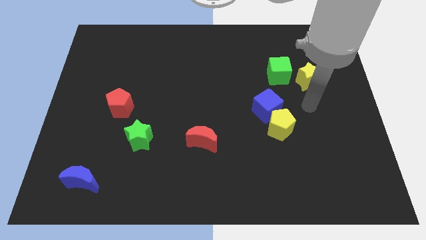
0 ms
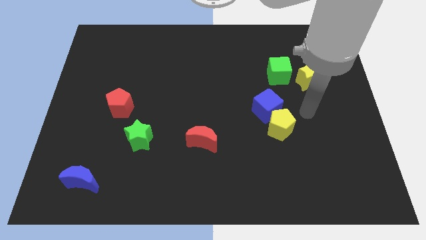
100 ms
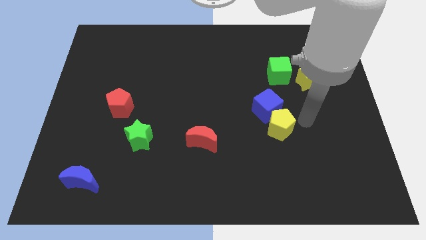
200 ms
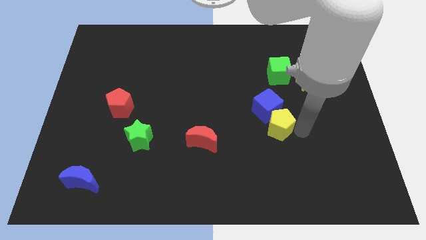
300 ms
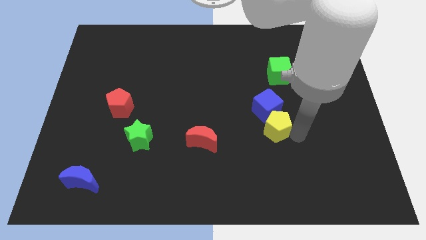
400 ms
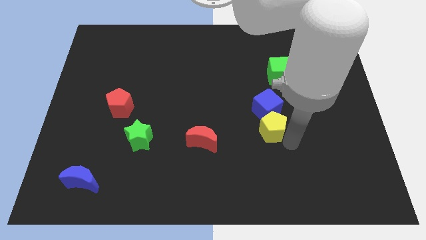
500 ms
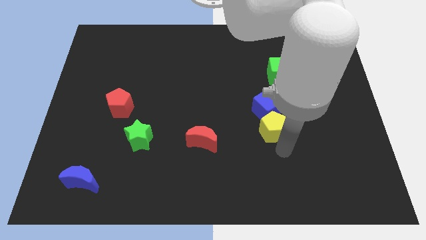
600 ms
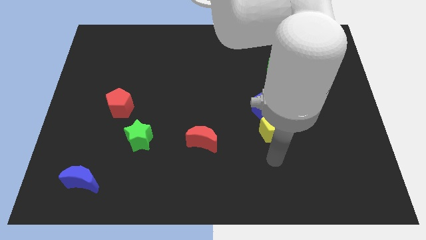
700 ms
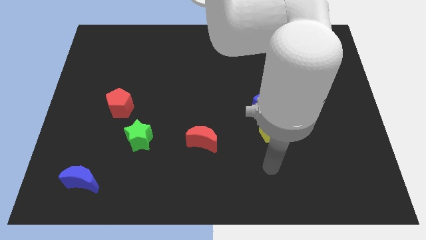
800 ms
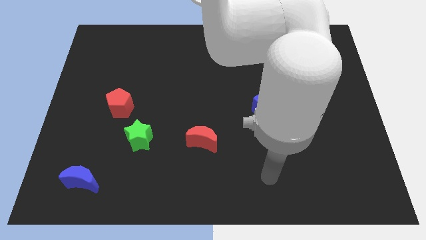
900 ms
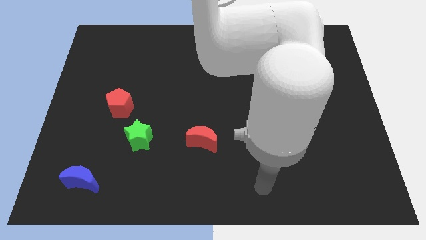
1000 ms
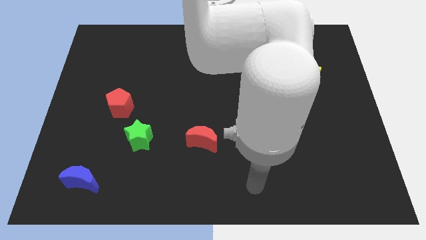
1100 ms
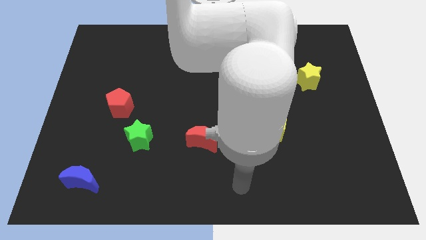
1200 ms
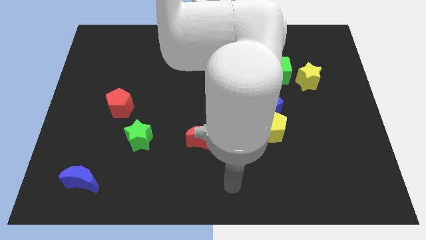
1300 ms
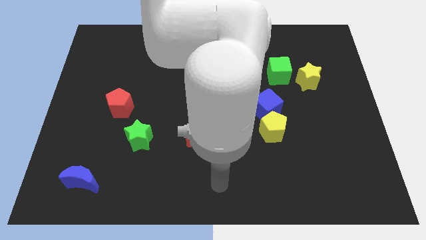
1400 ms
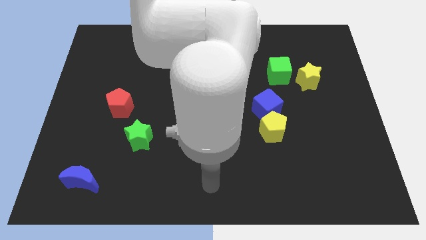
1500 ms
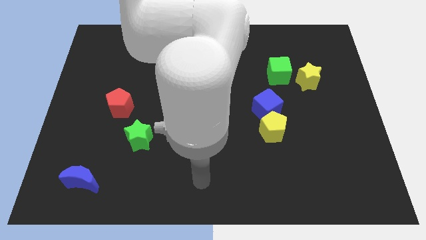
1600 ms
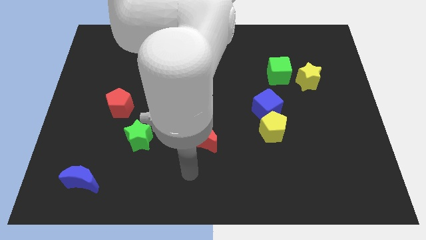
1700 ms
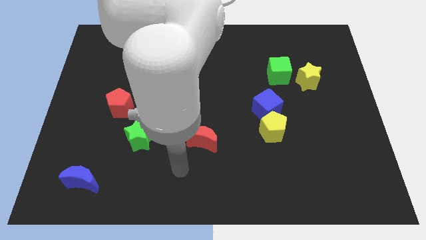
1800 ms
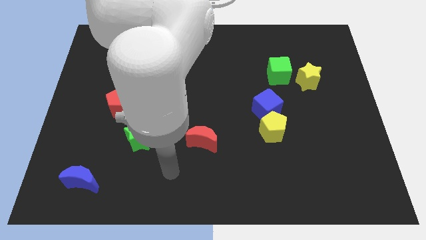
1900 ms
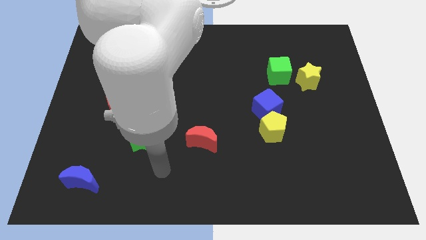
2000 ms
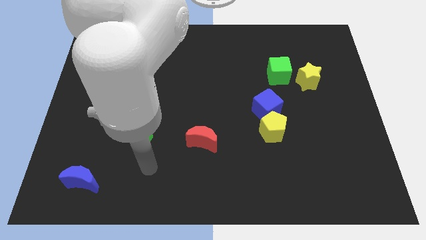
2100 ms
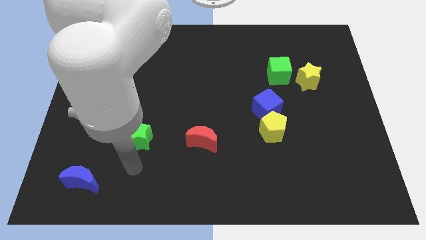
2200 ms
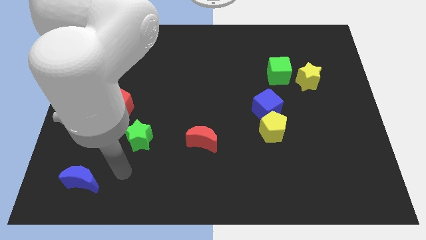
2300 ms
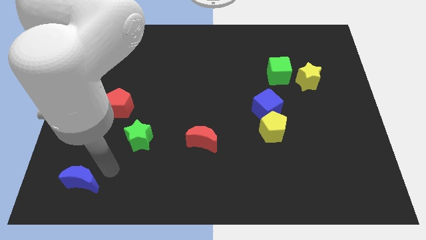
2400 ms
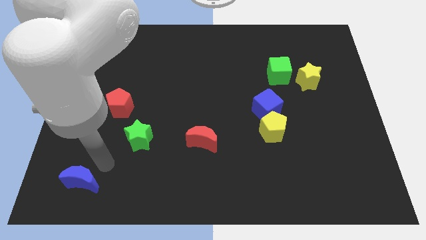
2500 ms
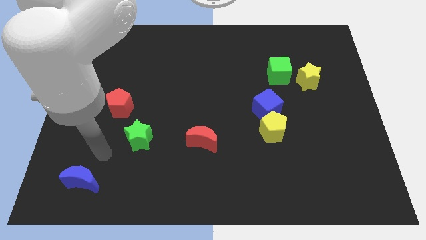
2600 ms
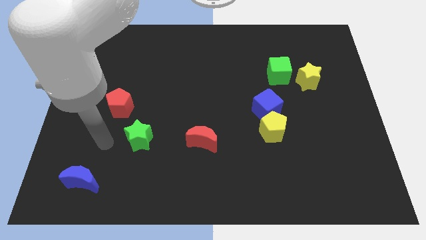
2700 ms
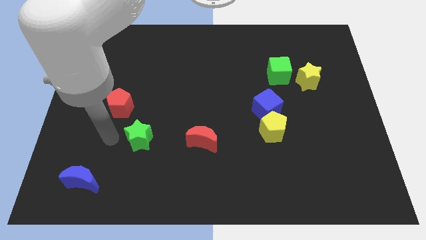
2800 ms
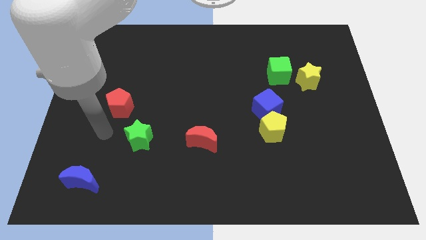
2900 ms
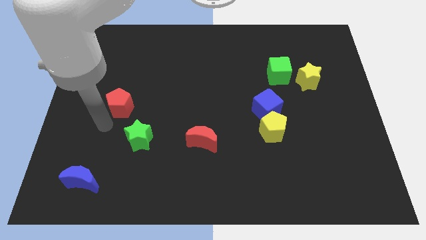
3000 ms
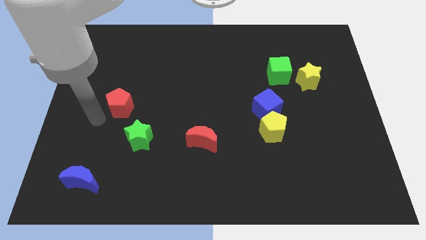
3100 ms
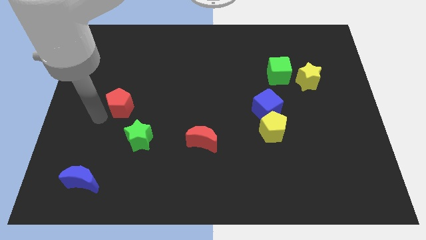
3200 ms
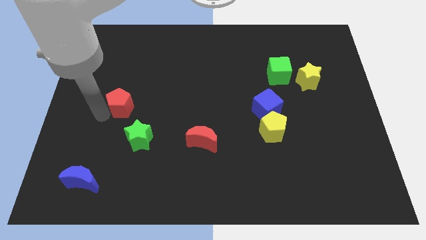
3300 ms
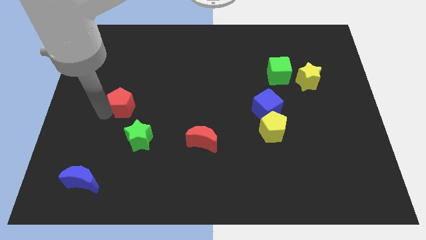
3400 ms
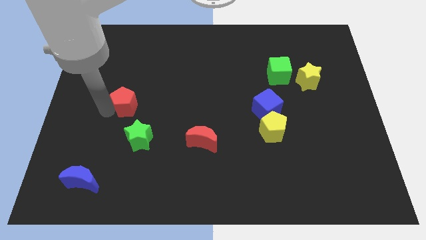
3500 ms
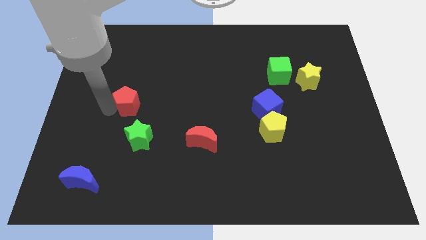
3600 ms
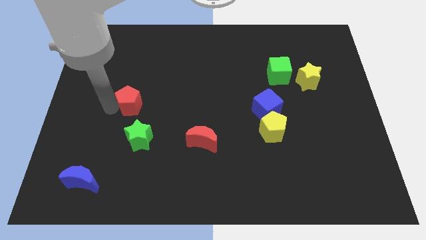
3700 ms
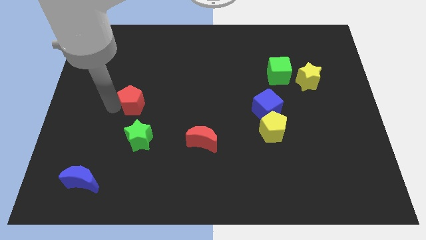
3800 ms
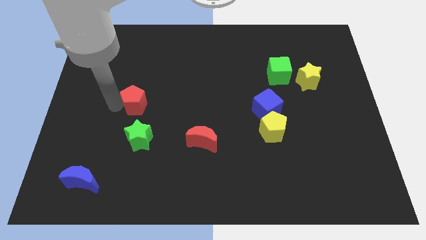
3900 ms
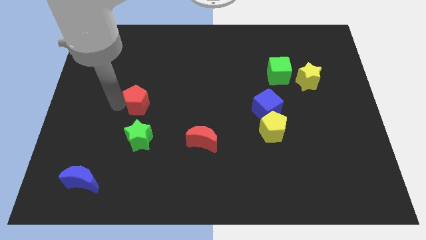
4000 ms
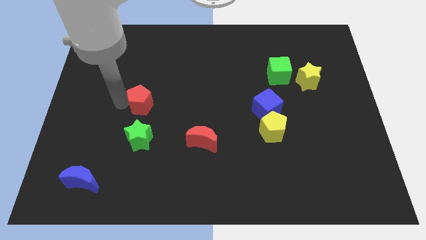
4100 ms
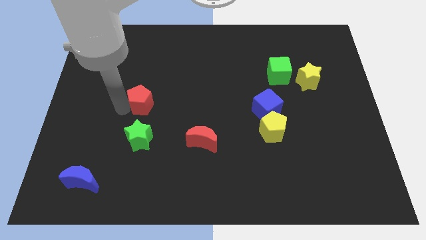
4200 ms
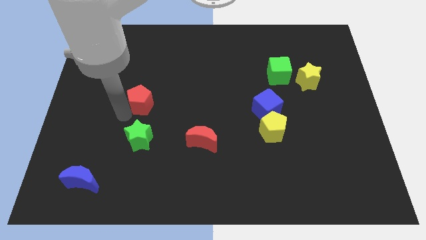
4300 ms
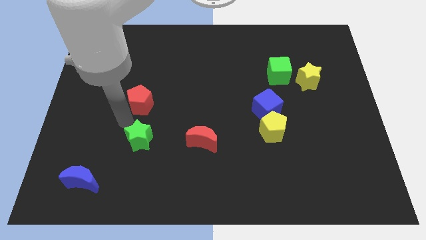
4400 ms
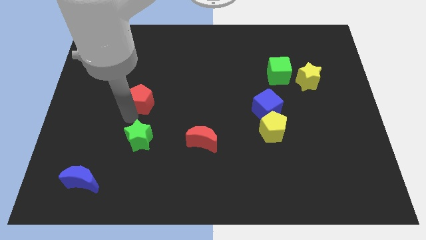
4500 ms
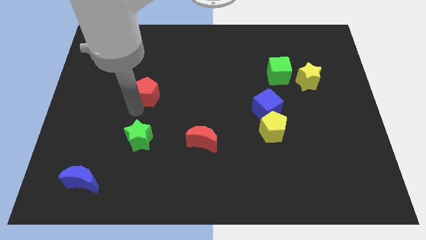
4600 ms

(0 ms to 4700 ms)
slightly slide the red pentagon up and then right

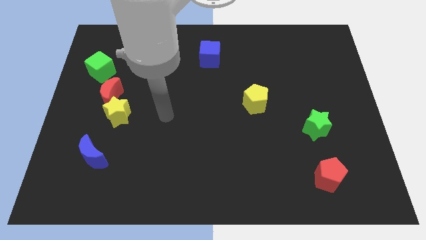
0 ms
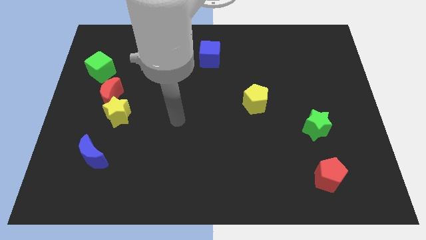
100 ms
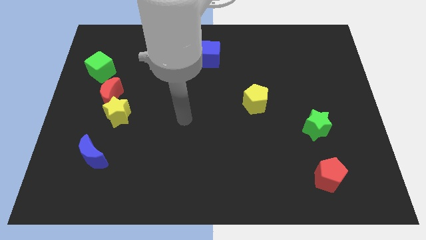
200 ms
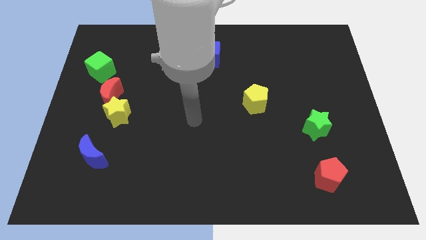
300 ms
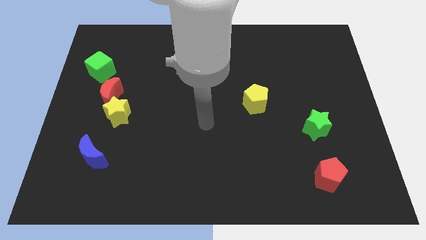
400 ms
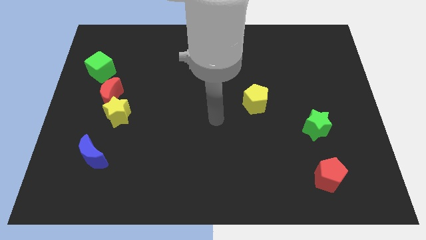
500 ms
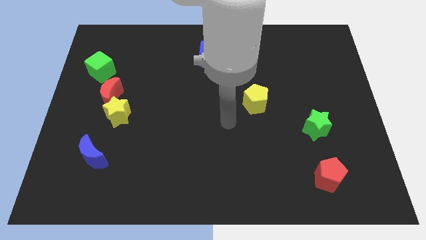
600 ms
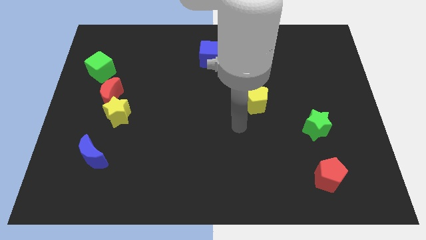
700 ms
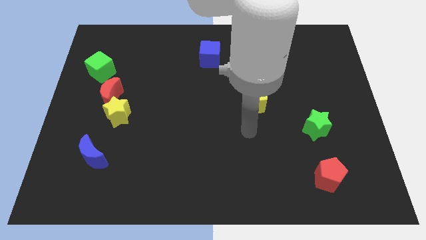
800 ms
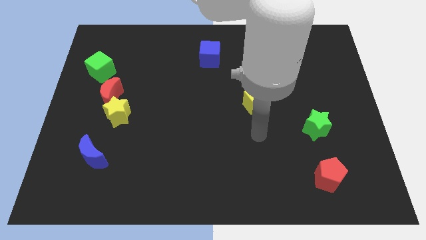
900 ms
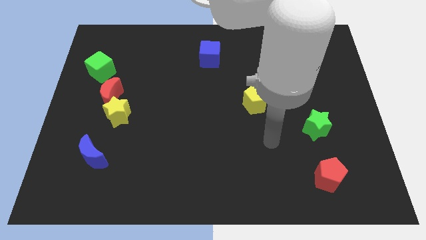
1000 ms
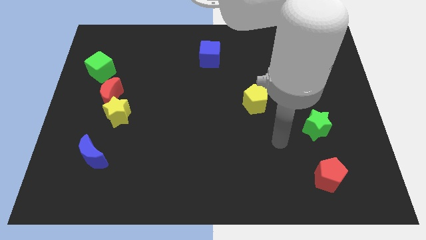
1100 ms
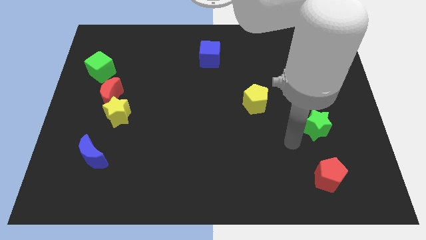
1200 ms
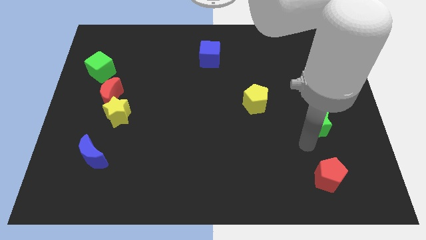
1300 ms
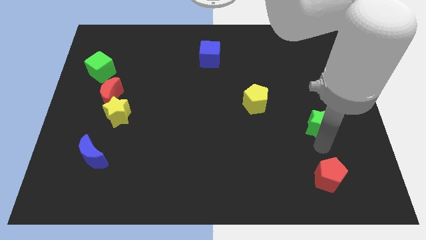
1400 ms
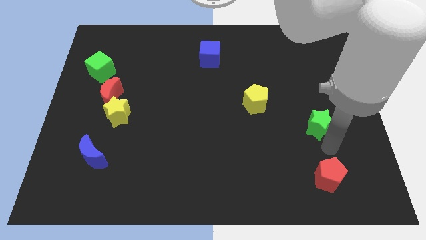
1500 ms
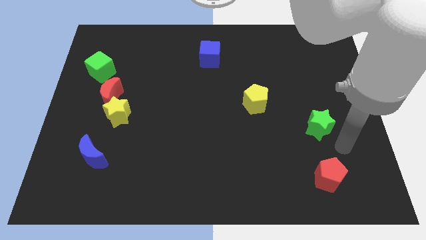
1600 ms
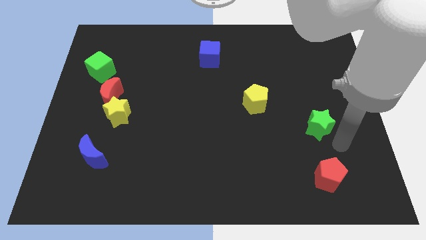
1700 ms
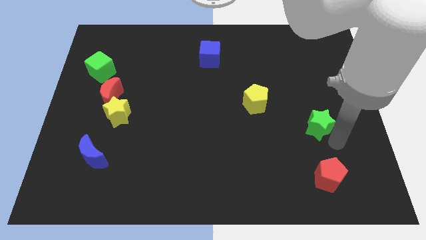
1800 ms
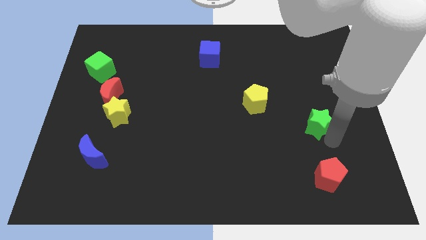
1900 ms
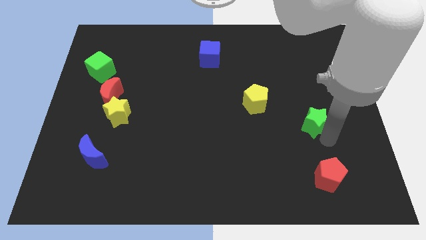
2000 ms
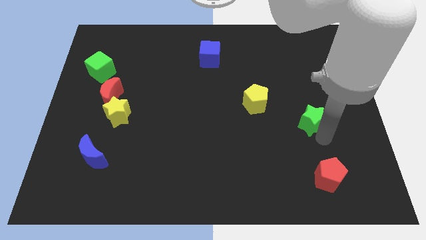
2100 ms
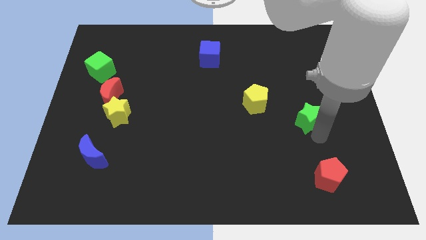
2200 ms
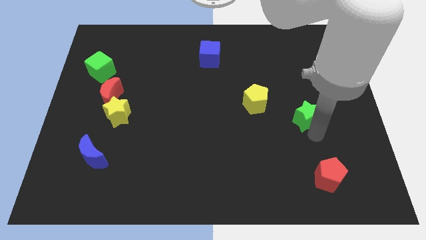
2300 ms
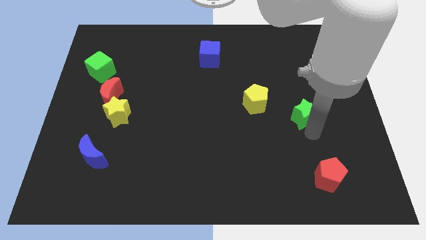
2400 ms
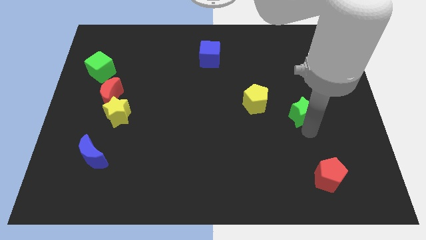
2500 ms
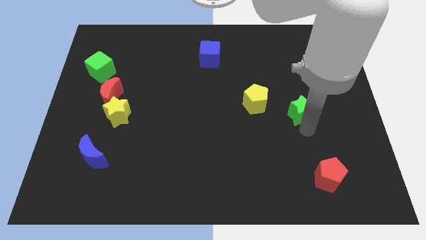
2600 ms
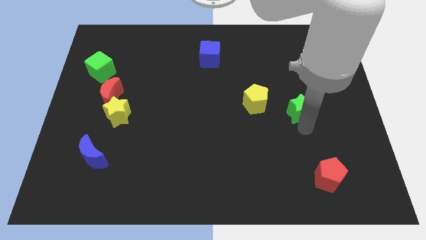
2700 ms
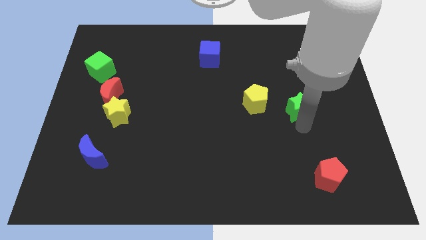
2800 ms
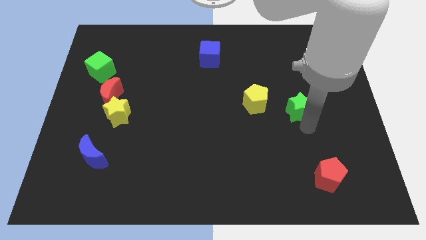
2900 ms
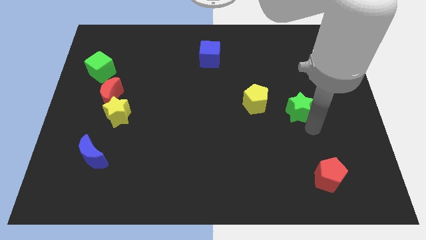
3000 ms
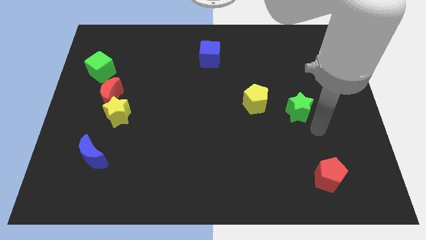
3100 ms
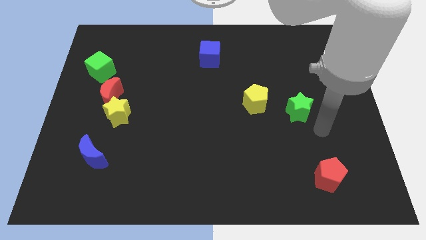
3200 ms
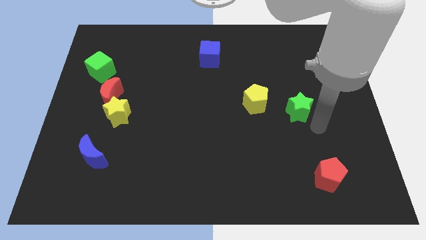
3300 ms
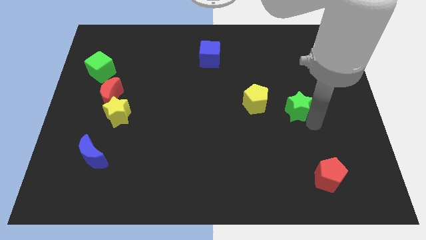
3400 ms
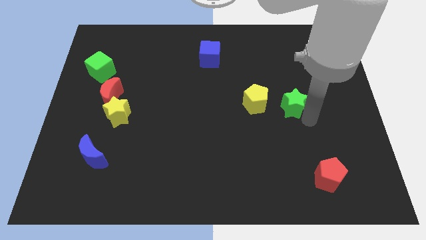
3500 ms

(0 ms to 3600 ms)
slide the green star slightly diagonally upwards and left

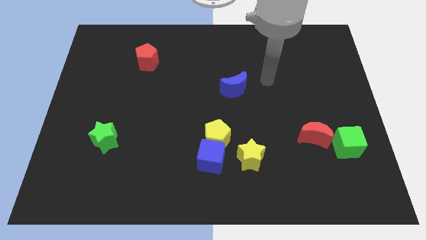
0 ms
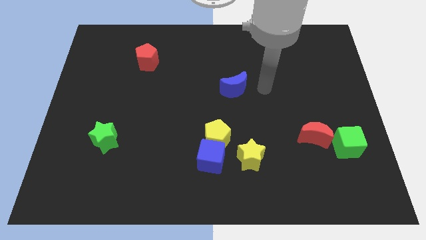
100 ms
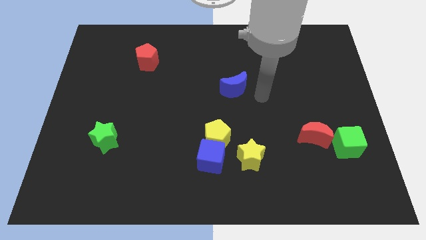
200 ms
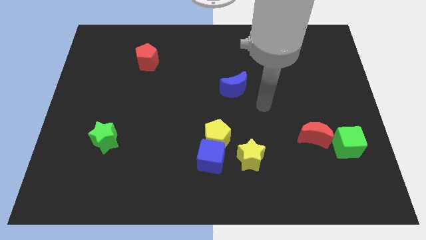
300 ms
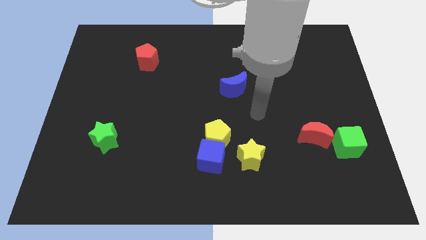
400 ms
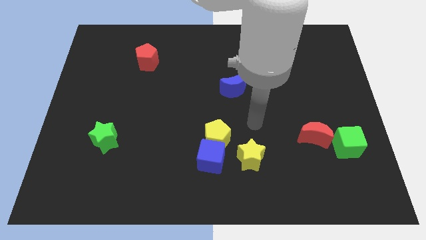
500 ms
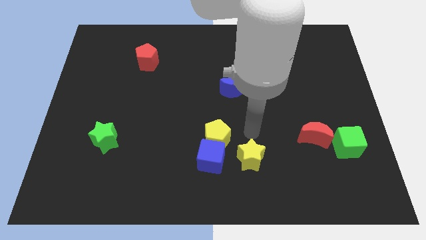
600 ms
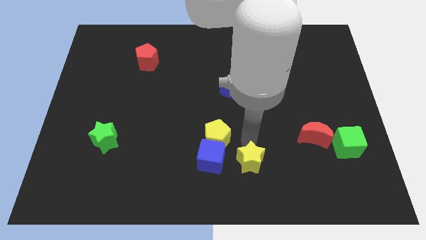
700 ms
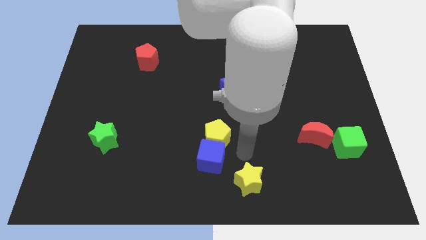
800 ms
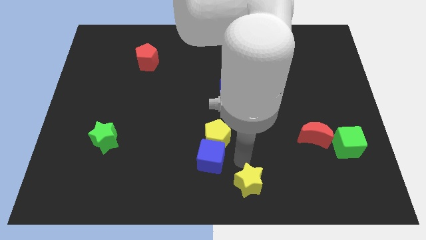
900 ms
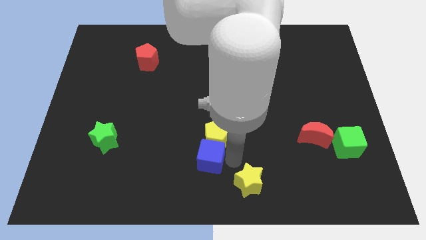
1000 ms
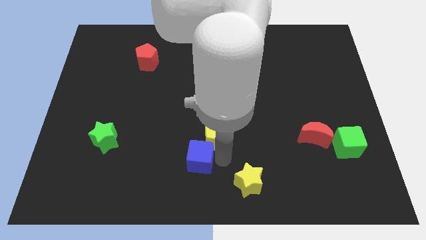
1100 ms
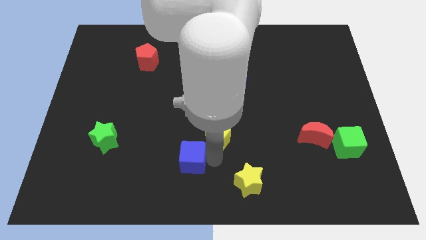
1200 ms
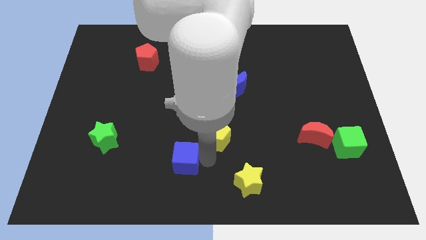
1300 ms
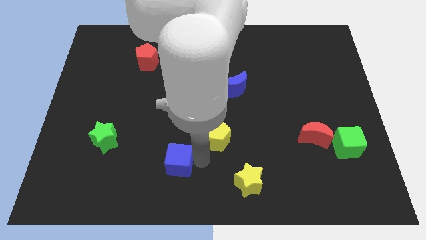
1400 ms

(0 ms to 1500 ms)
move the blue cube left a bit
